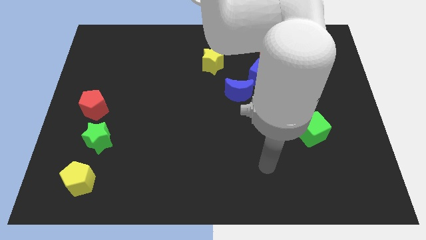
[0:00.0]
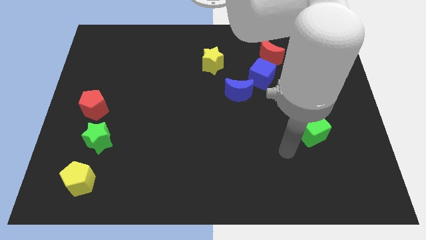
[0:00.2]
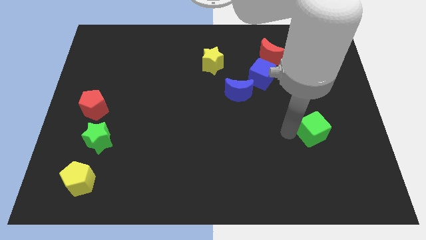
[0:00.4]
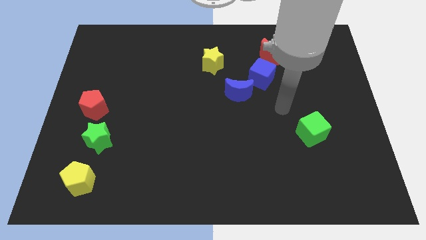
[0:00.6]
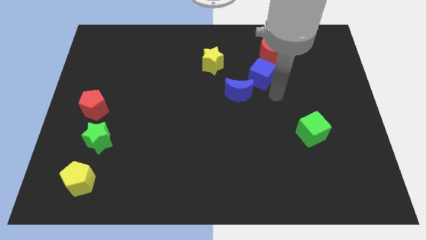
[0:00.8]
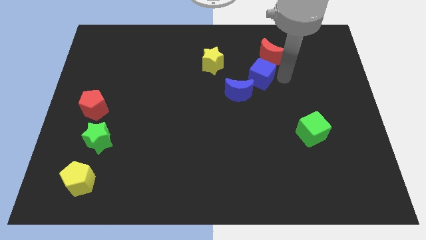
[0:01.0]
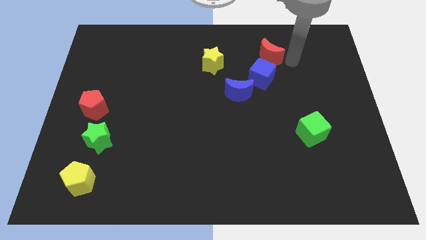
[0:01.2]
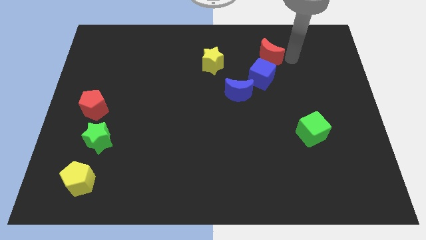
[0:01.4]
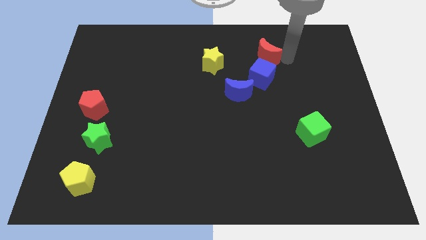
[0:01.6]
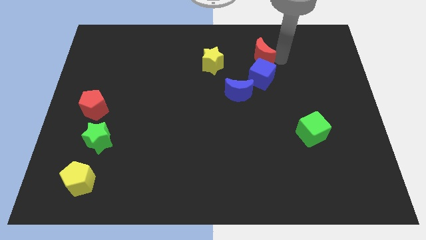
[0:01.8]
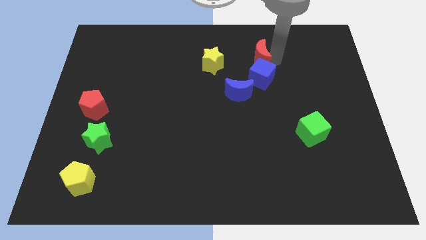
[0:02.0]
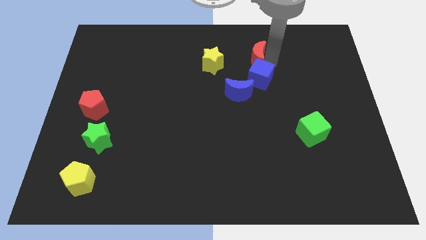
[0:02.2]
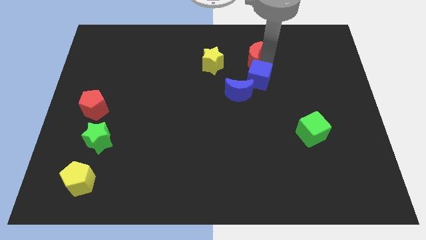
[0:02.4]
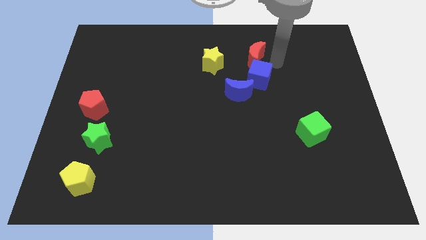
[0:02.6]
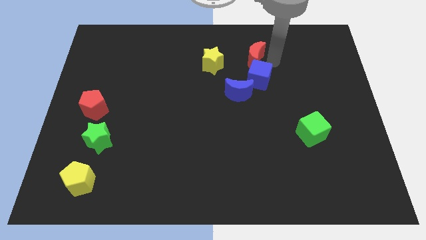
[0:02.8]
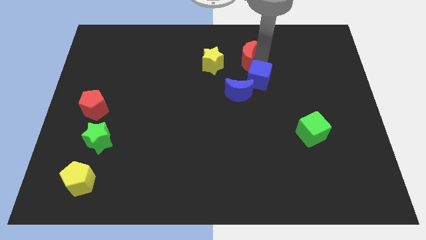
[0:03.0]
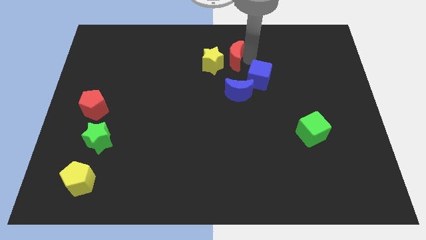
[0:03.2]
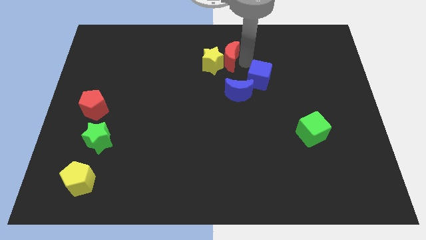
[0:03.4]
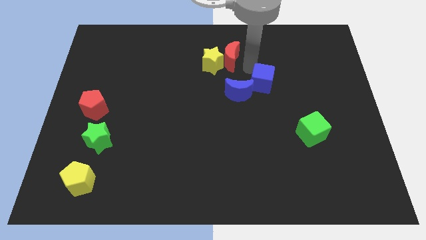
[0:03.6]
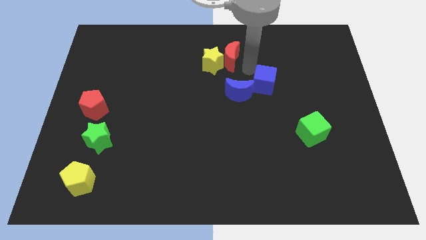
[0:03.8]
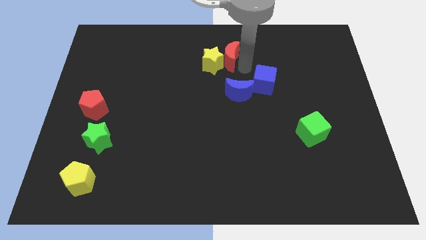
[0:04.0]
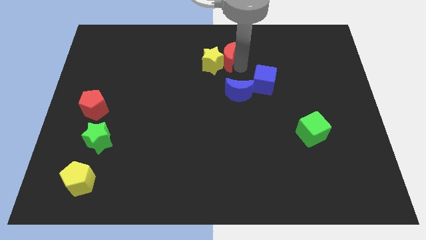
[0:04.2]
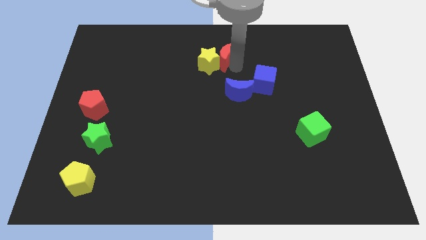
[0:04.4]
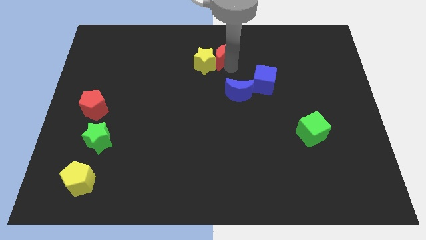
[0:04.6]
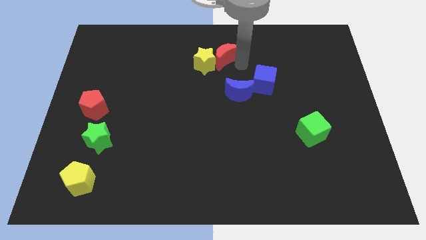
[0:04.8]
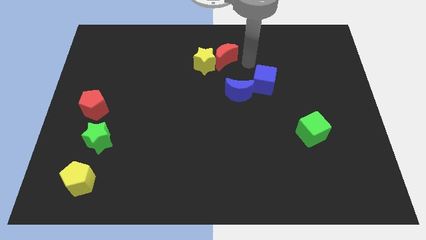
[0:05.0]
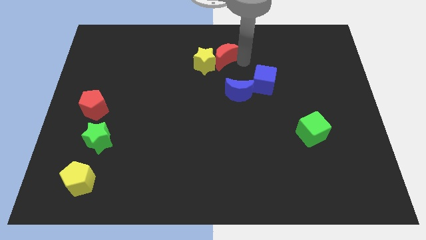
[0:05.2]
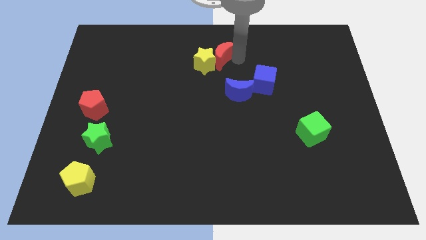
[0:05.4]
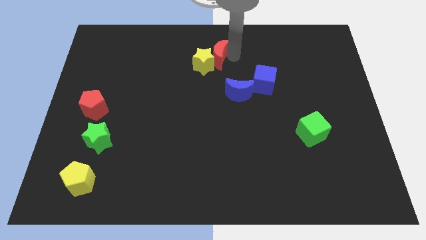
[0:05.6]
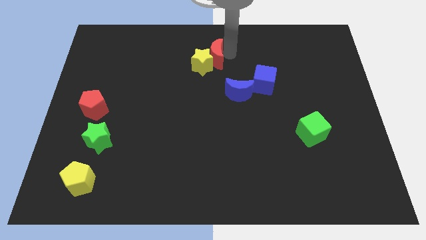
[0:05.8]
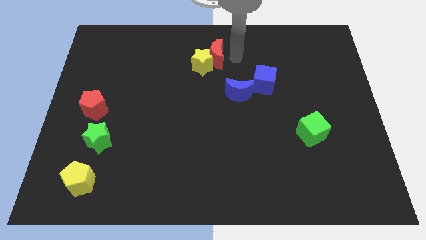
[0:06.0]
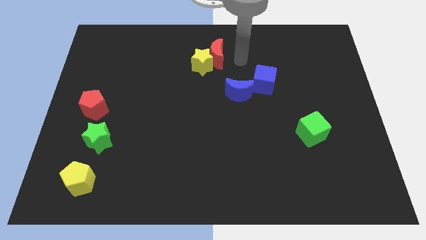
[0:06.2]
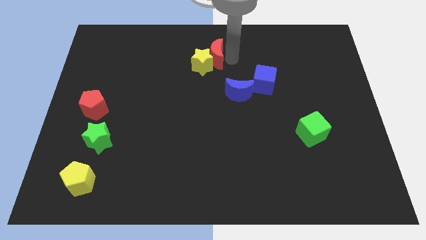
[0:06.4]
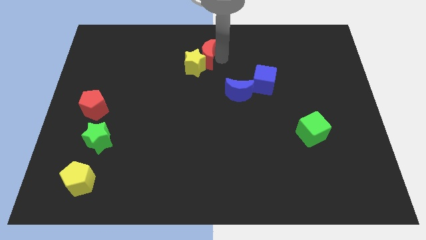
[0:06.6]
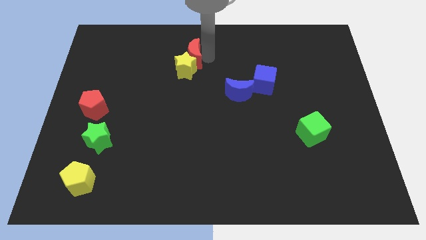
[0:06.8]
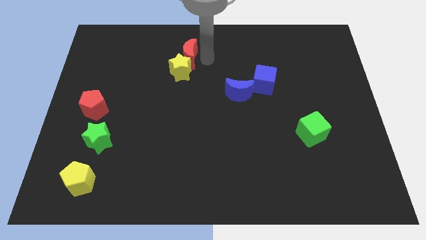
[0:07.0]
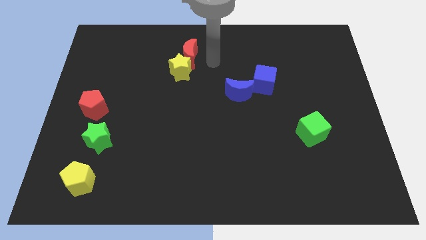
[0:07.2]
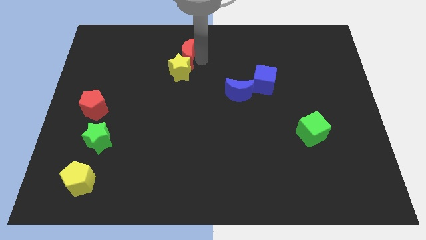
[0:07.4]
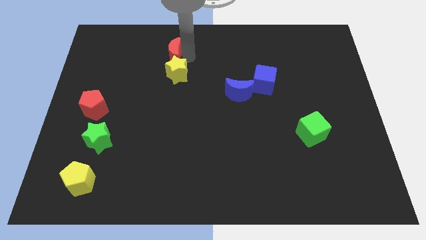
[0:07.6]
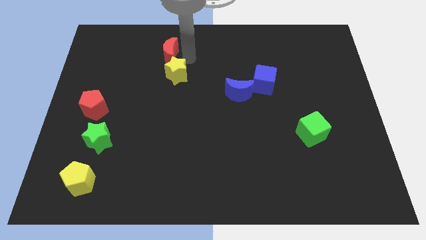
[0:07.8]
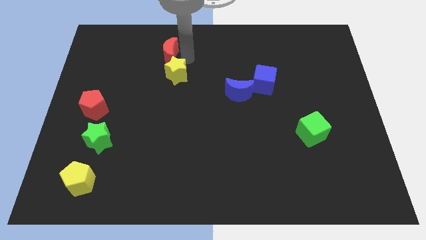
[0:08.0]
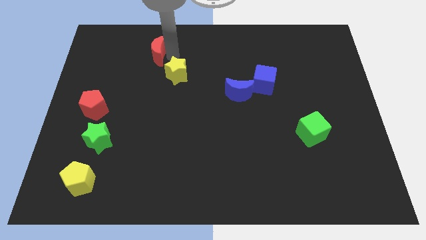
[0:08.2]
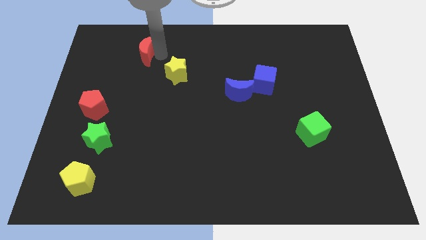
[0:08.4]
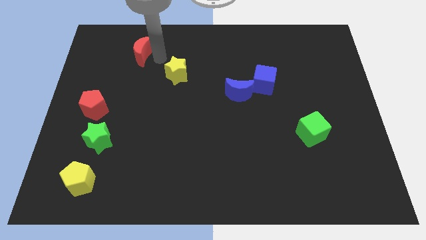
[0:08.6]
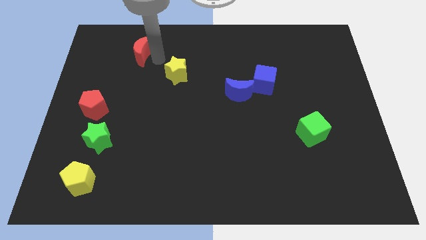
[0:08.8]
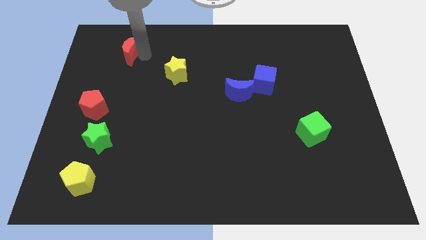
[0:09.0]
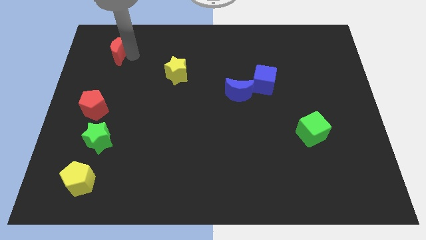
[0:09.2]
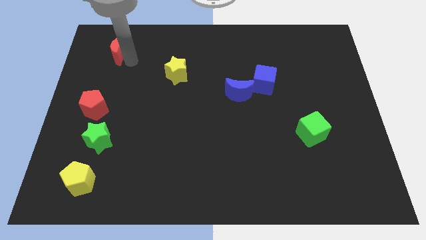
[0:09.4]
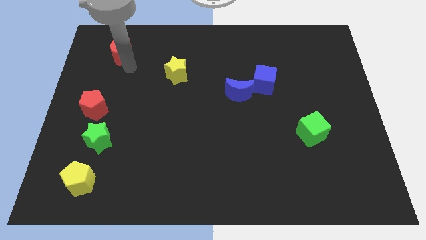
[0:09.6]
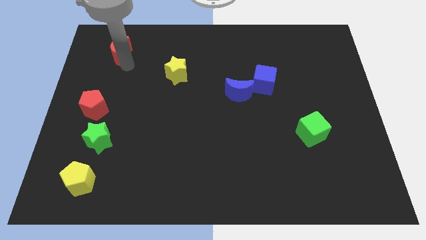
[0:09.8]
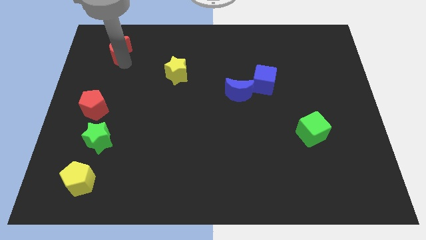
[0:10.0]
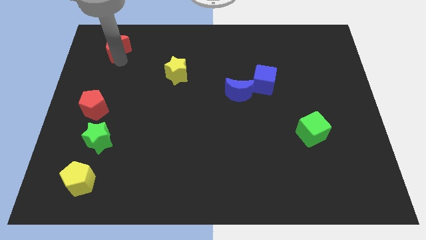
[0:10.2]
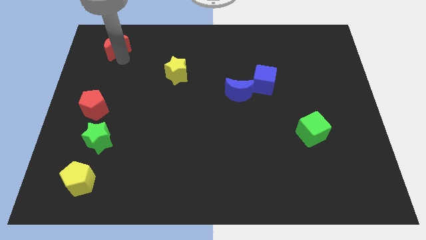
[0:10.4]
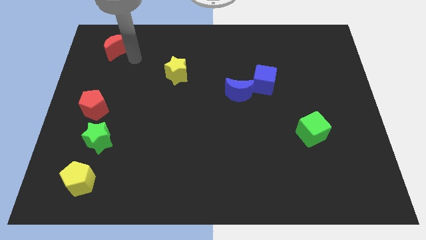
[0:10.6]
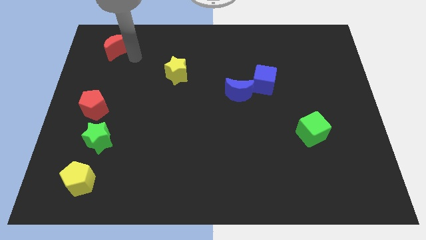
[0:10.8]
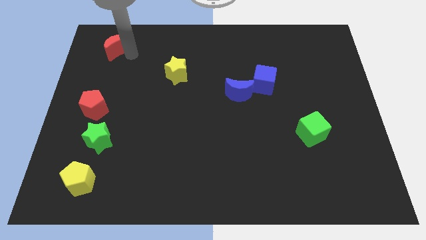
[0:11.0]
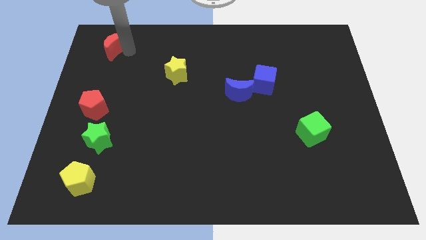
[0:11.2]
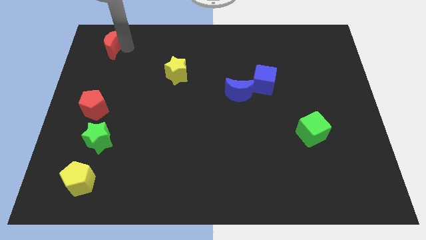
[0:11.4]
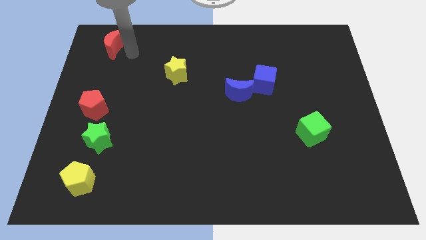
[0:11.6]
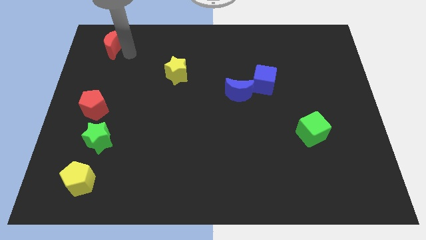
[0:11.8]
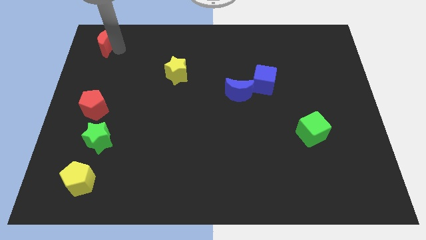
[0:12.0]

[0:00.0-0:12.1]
push the red moon to the top left of the board
